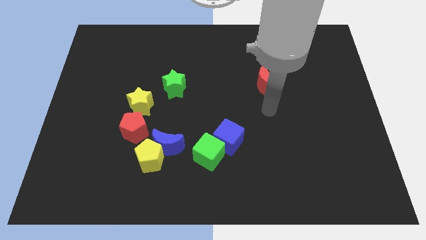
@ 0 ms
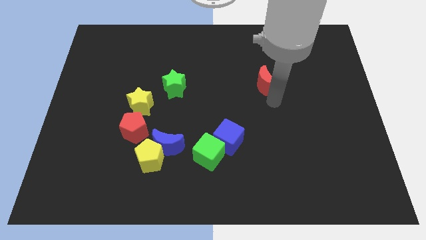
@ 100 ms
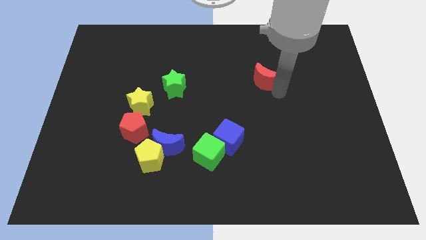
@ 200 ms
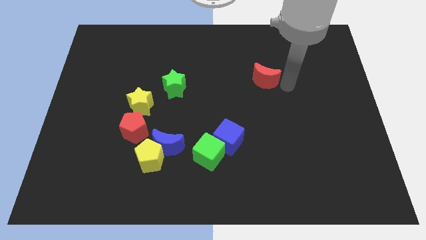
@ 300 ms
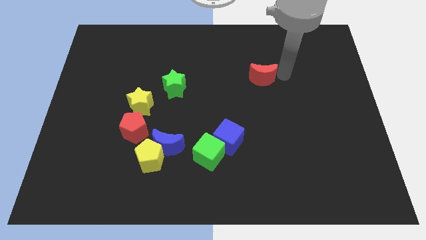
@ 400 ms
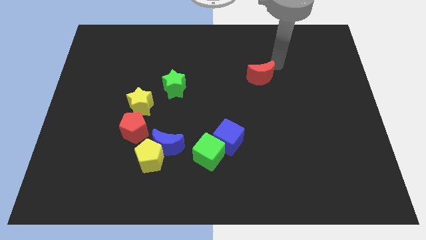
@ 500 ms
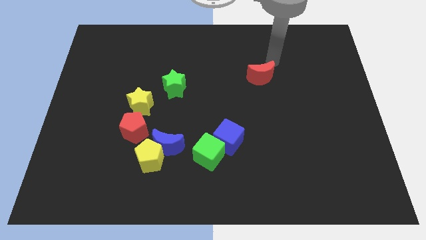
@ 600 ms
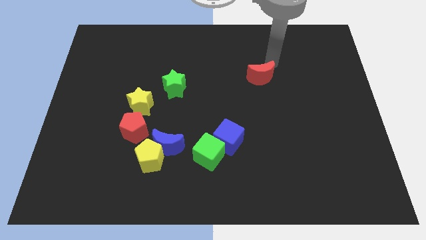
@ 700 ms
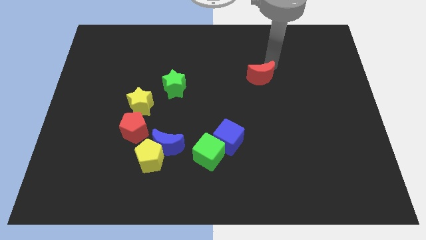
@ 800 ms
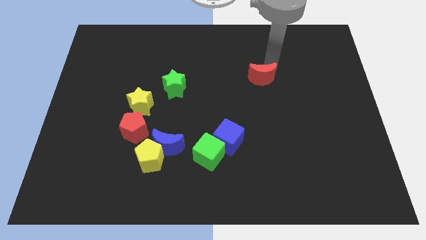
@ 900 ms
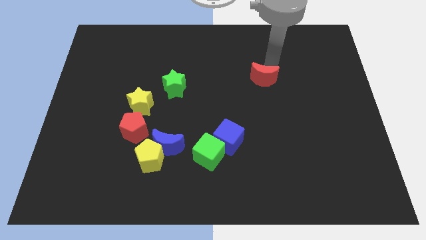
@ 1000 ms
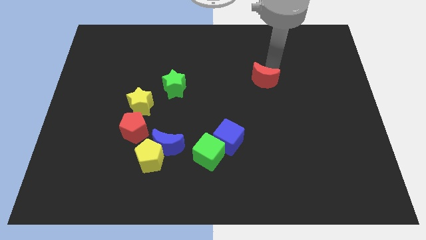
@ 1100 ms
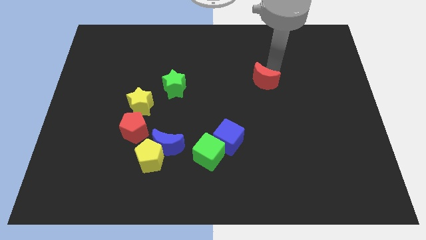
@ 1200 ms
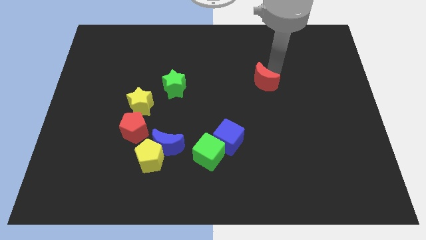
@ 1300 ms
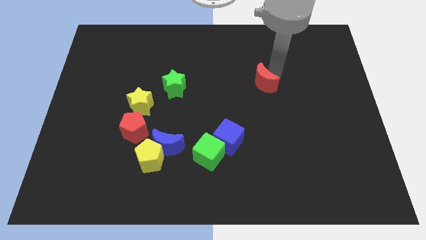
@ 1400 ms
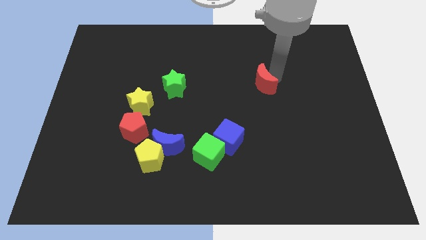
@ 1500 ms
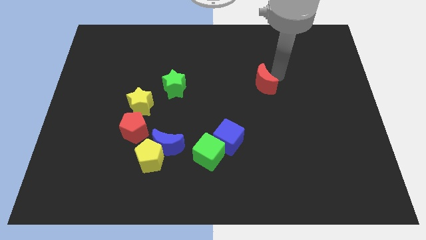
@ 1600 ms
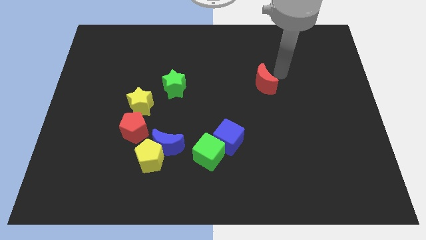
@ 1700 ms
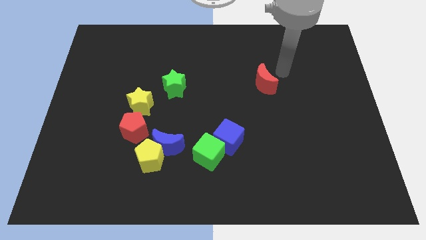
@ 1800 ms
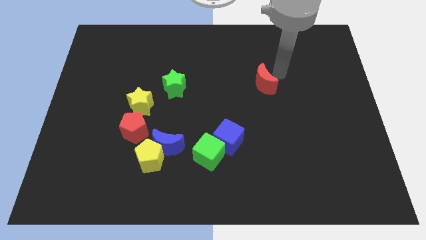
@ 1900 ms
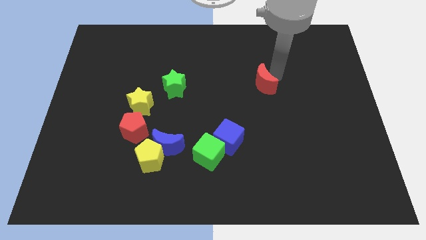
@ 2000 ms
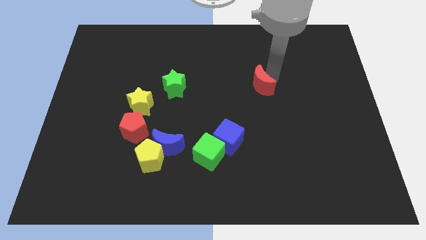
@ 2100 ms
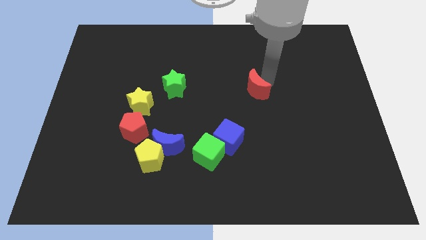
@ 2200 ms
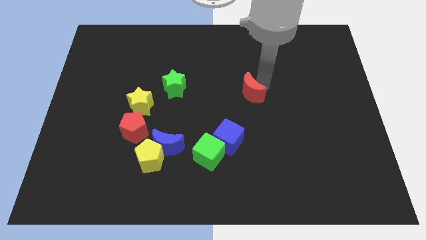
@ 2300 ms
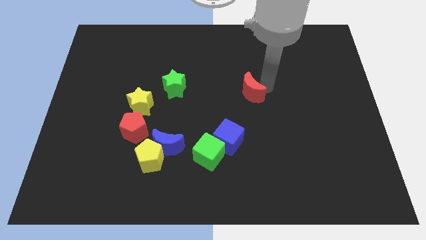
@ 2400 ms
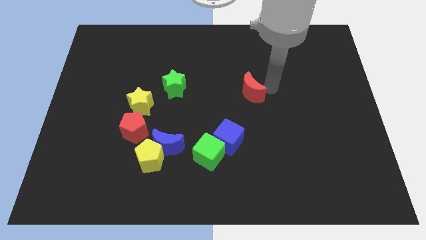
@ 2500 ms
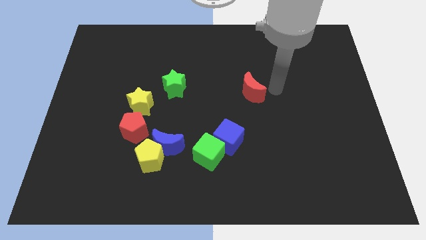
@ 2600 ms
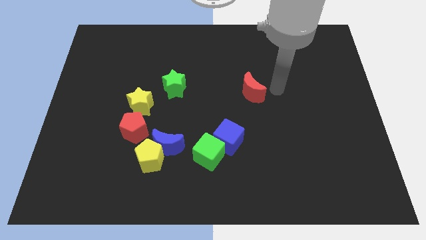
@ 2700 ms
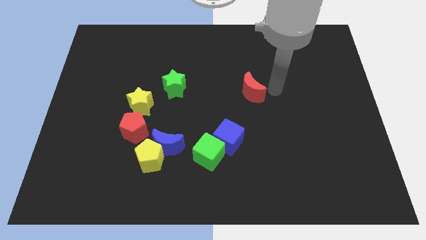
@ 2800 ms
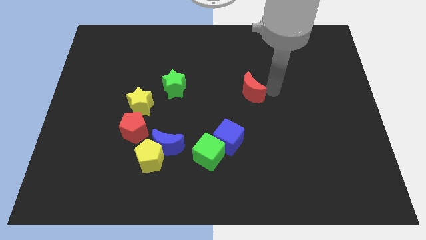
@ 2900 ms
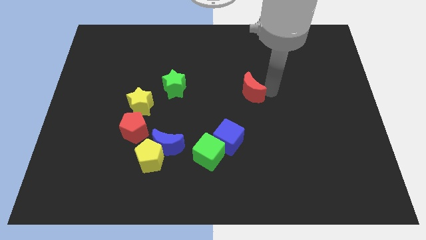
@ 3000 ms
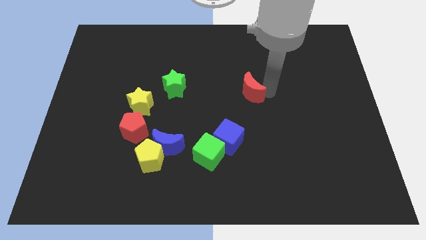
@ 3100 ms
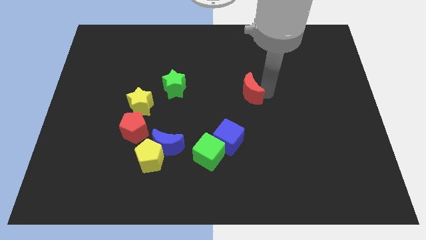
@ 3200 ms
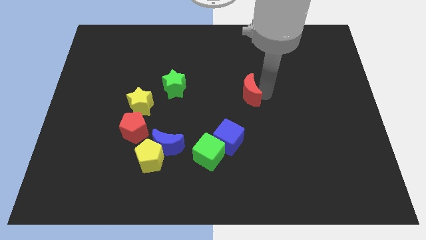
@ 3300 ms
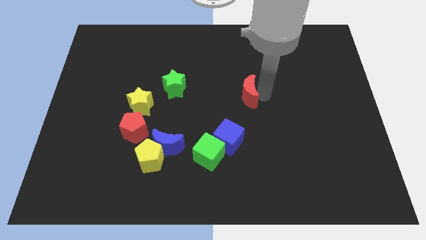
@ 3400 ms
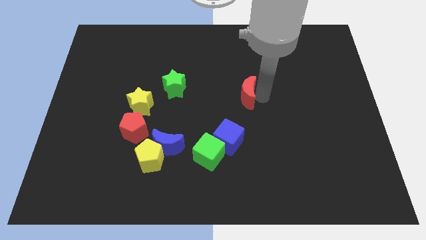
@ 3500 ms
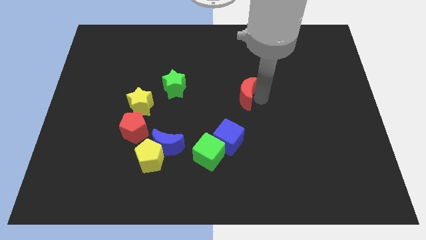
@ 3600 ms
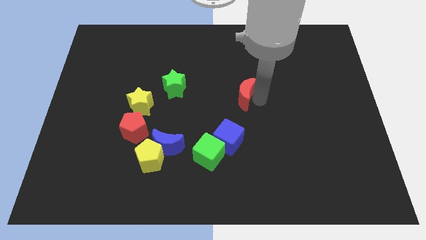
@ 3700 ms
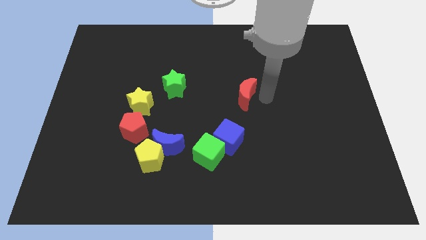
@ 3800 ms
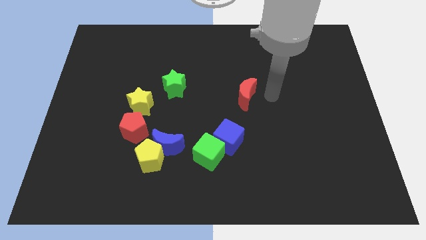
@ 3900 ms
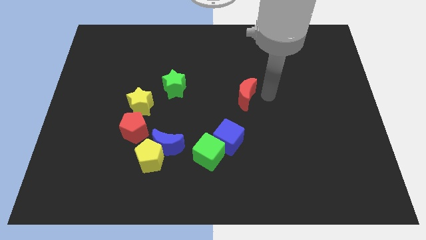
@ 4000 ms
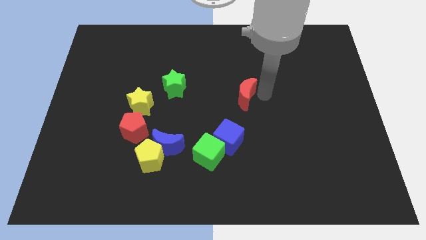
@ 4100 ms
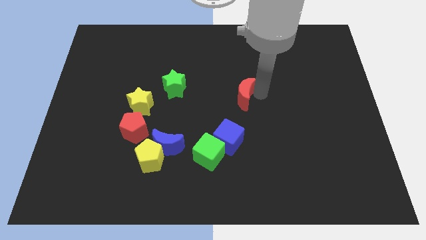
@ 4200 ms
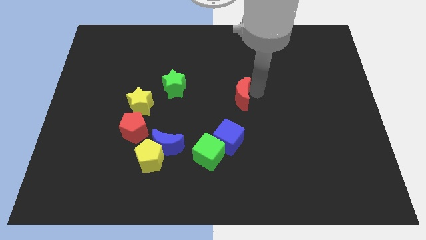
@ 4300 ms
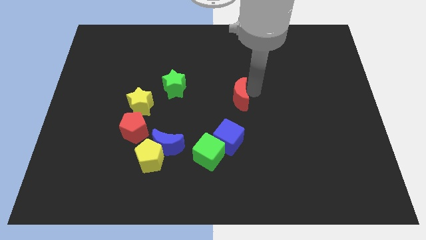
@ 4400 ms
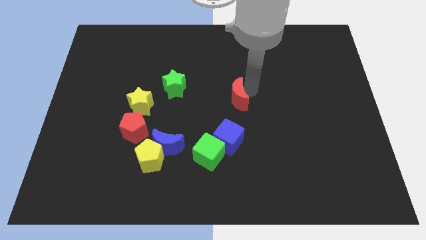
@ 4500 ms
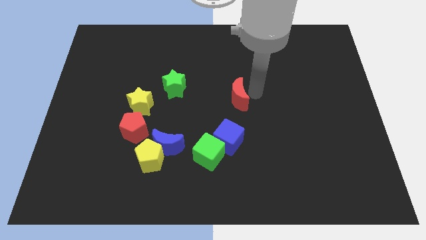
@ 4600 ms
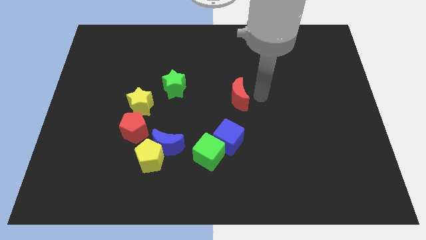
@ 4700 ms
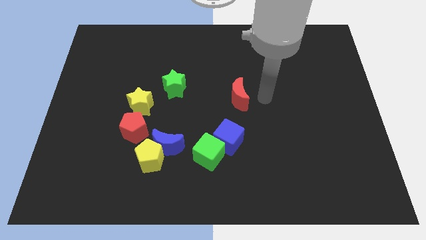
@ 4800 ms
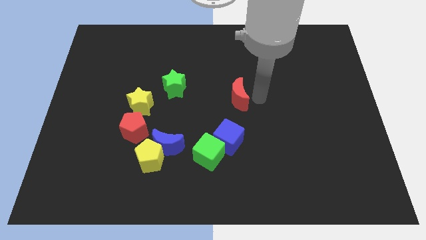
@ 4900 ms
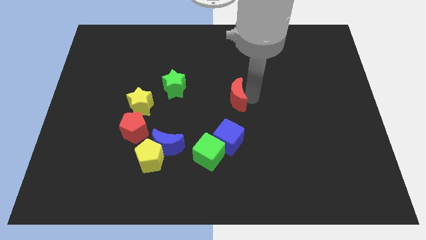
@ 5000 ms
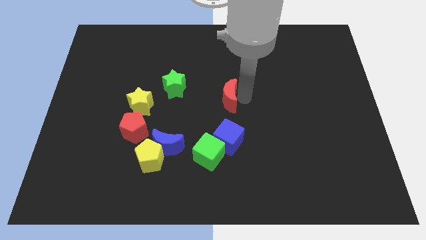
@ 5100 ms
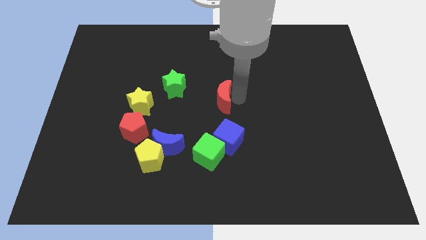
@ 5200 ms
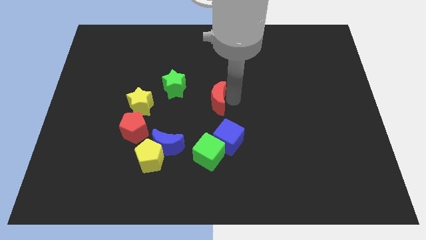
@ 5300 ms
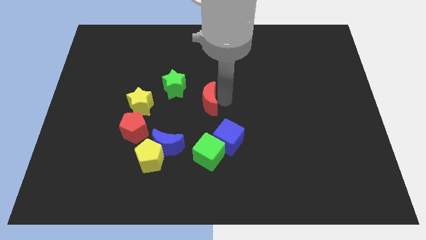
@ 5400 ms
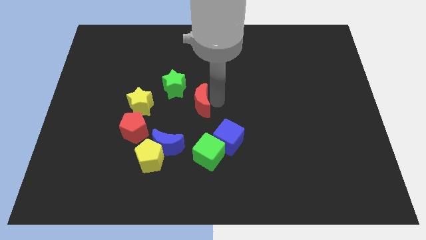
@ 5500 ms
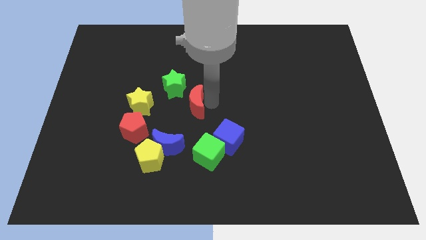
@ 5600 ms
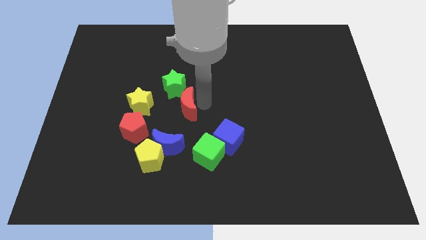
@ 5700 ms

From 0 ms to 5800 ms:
move the red moon to the top of the blue moon

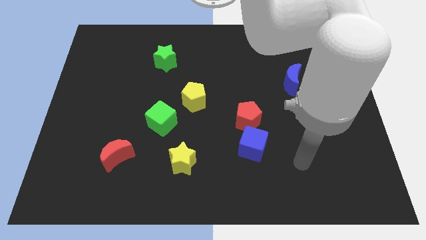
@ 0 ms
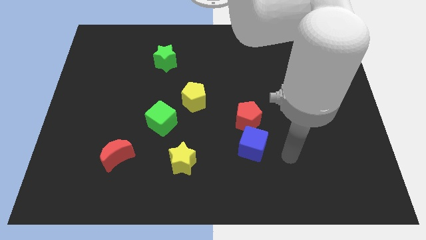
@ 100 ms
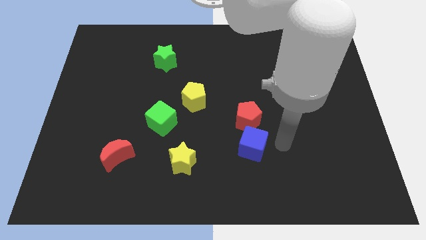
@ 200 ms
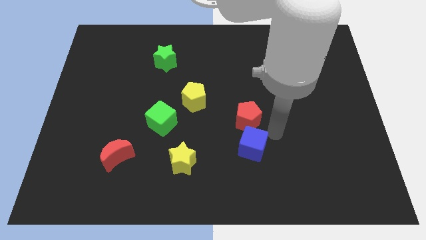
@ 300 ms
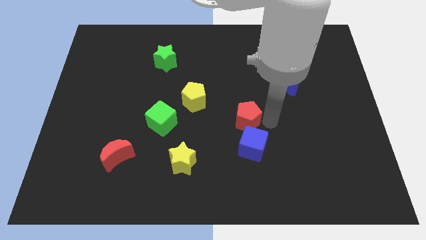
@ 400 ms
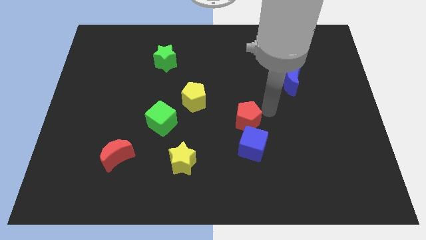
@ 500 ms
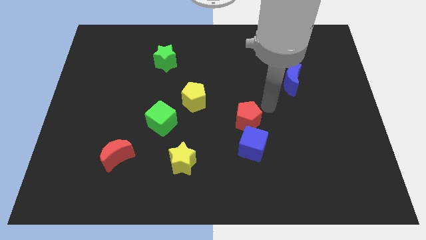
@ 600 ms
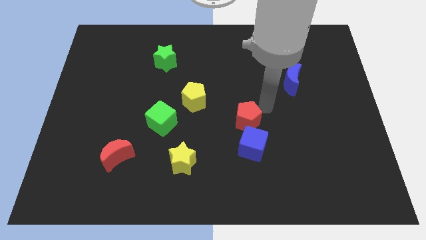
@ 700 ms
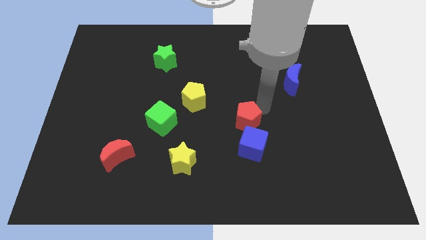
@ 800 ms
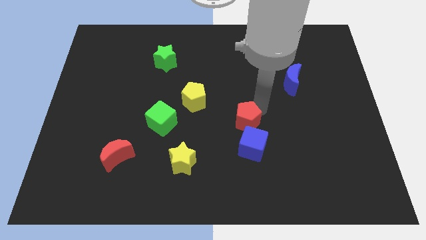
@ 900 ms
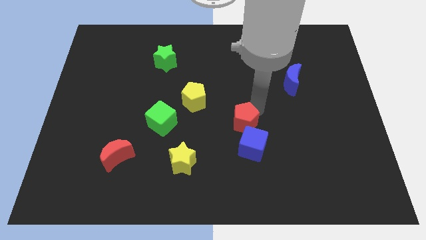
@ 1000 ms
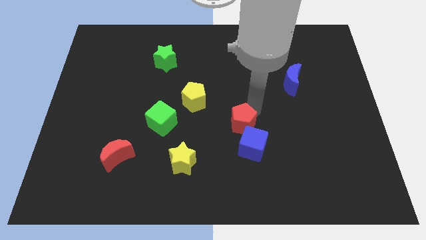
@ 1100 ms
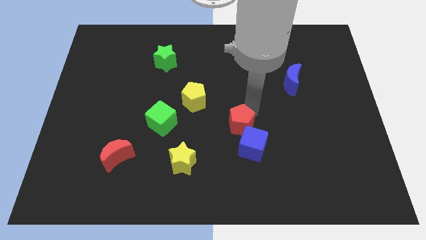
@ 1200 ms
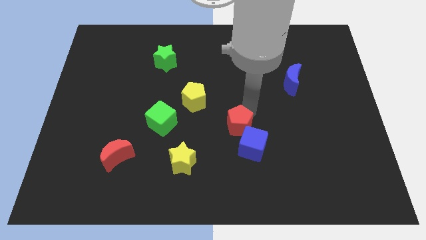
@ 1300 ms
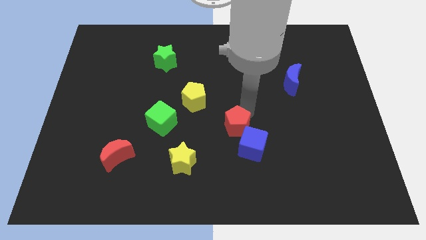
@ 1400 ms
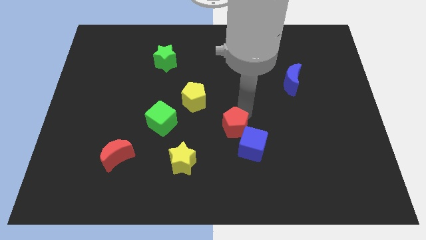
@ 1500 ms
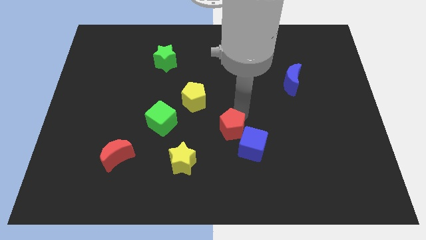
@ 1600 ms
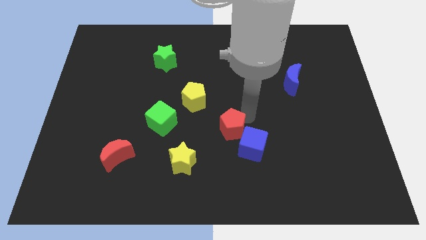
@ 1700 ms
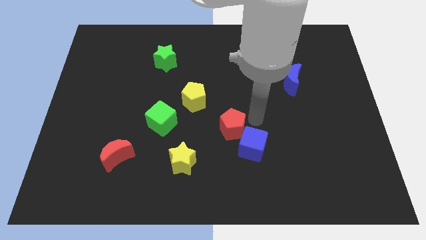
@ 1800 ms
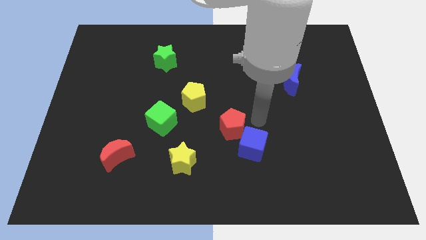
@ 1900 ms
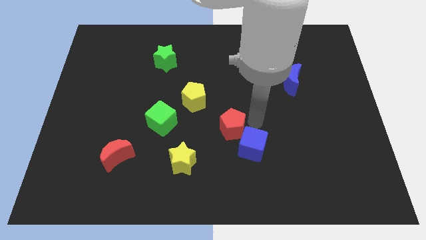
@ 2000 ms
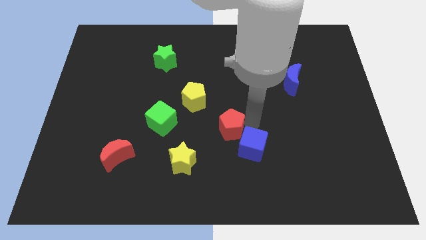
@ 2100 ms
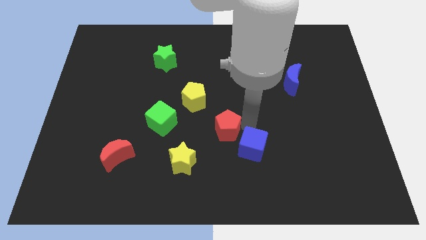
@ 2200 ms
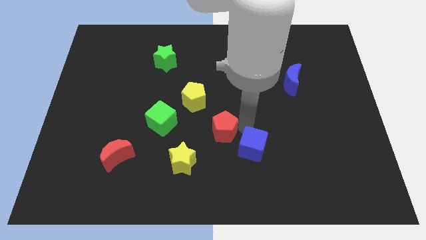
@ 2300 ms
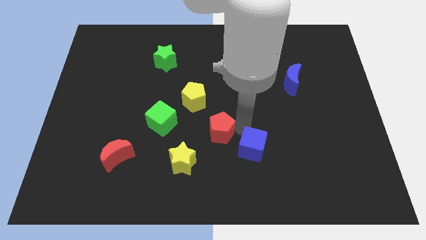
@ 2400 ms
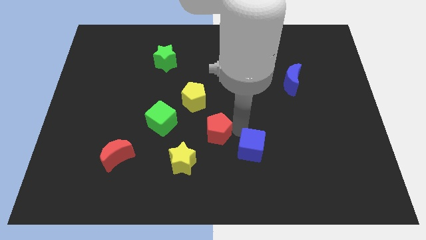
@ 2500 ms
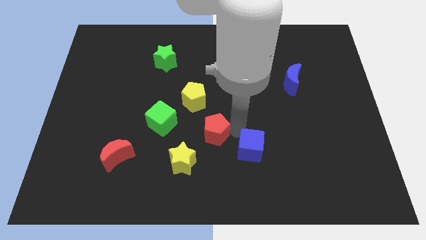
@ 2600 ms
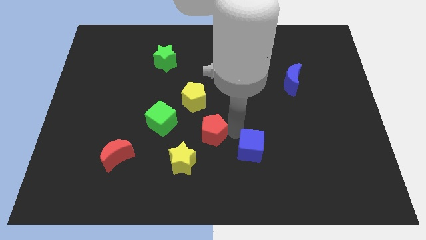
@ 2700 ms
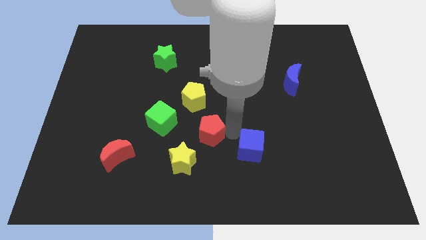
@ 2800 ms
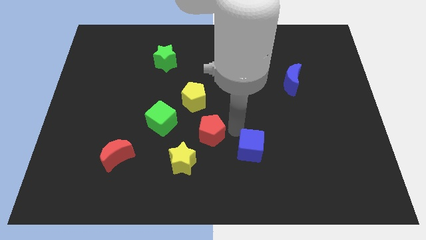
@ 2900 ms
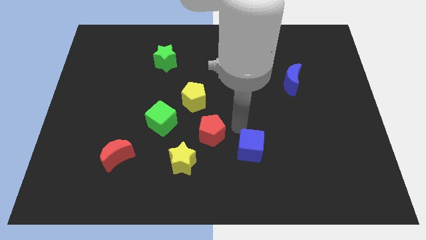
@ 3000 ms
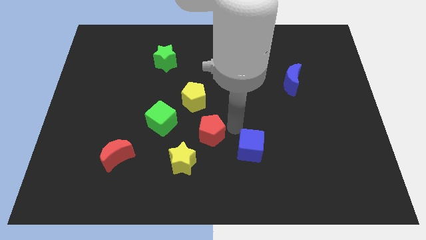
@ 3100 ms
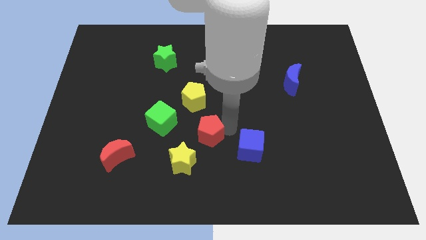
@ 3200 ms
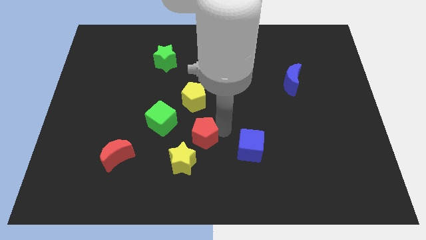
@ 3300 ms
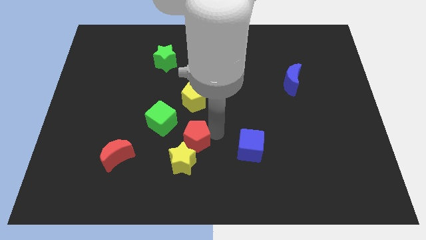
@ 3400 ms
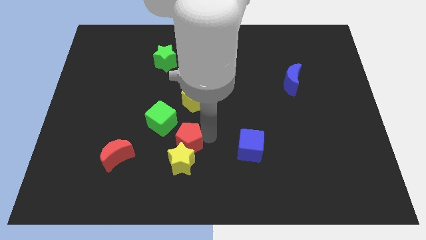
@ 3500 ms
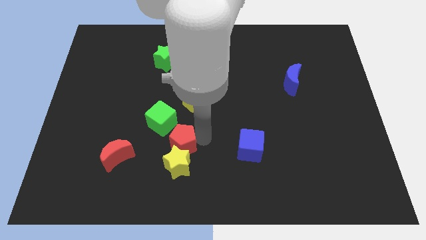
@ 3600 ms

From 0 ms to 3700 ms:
push the red pentagon to the right side of the red moon
